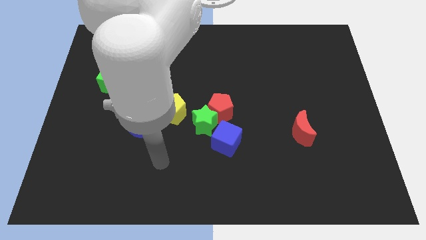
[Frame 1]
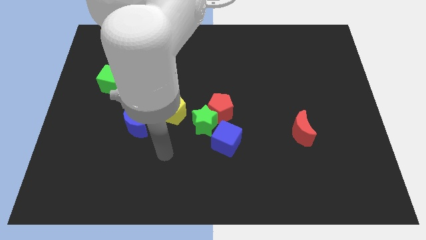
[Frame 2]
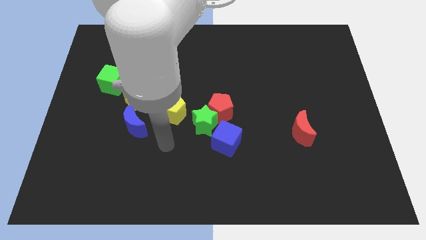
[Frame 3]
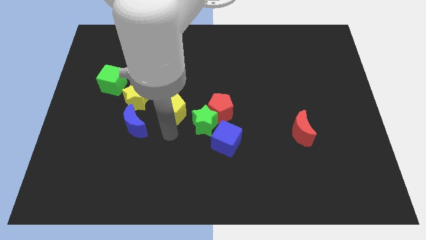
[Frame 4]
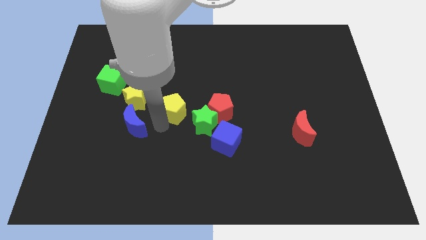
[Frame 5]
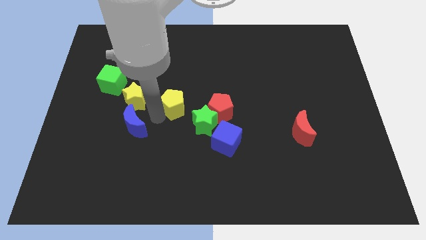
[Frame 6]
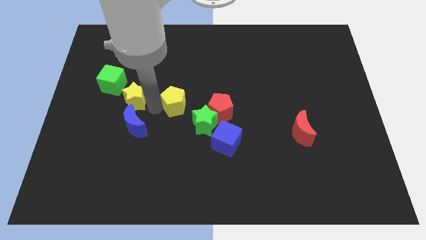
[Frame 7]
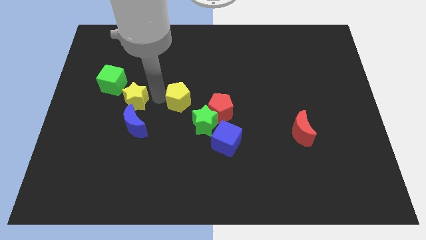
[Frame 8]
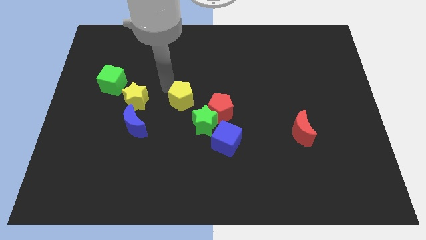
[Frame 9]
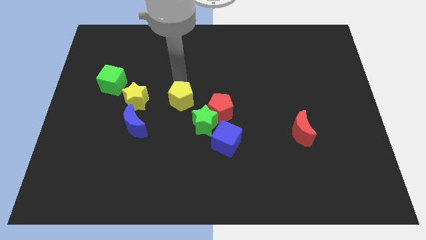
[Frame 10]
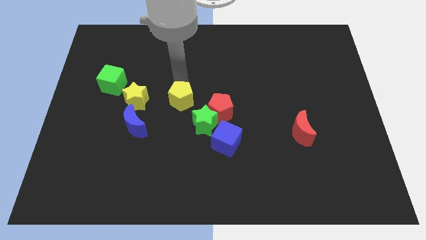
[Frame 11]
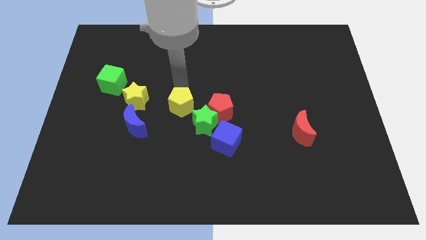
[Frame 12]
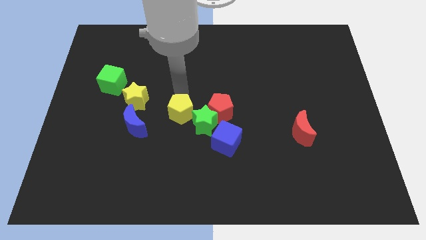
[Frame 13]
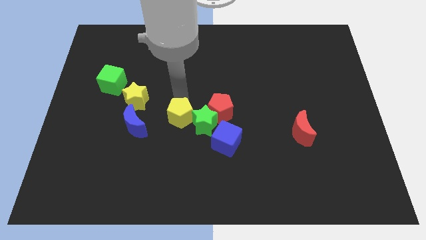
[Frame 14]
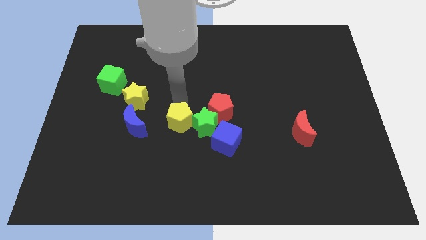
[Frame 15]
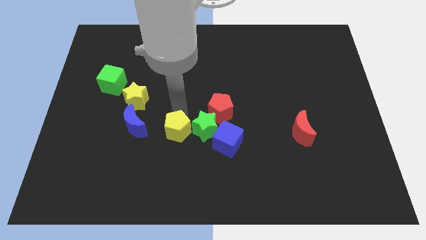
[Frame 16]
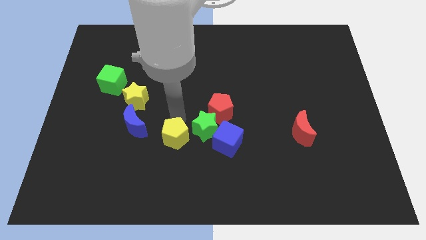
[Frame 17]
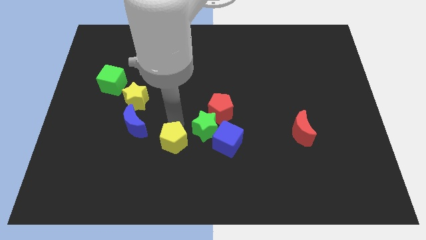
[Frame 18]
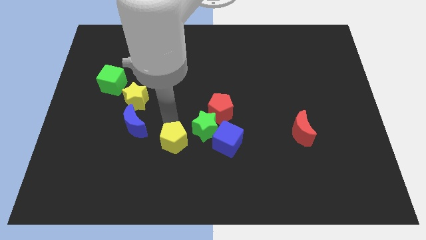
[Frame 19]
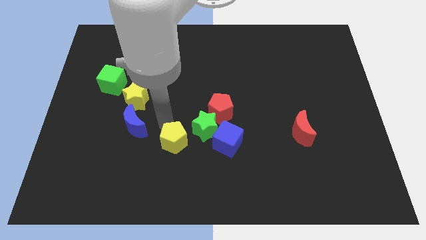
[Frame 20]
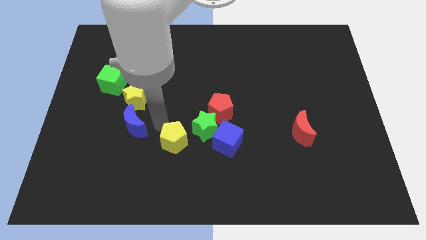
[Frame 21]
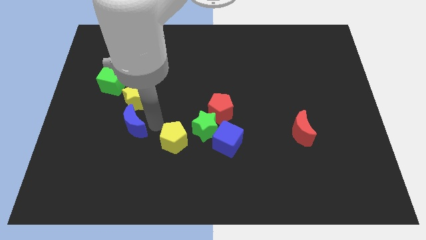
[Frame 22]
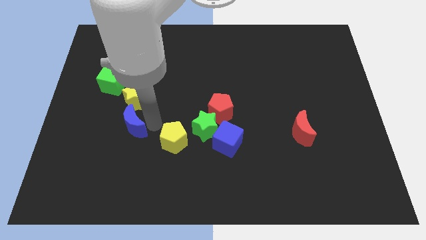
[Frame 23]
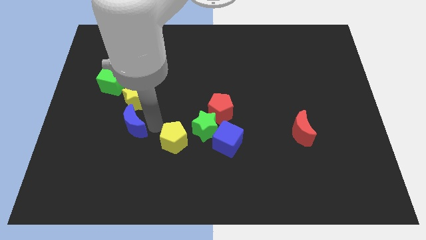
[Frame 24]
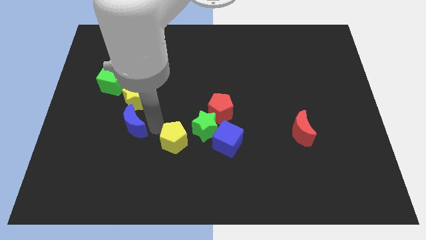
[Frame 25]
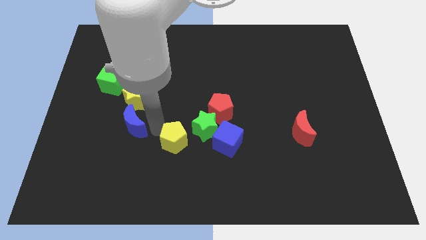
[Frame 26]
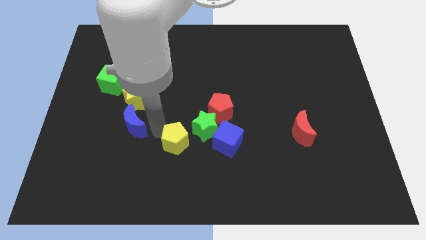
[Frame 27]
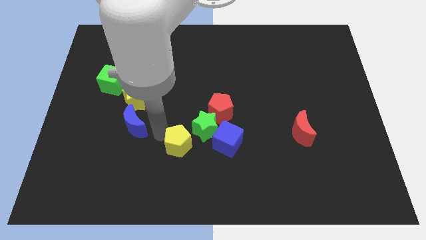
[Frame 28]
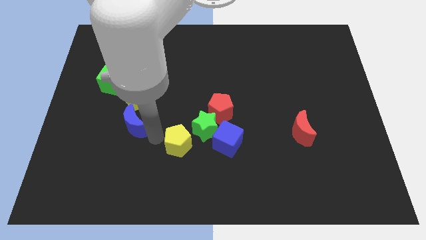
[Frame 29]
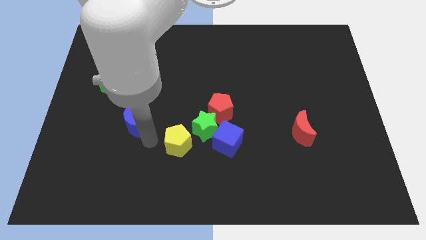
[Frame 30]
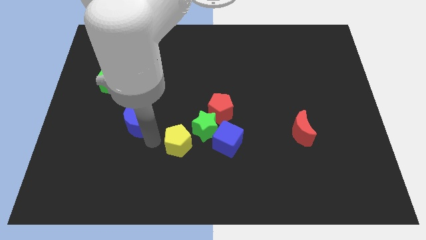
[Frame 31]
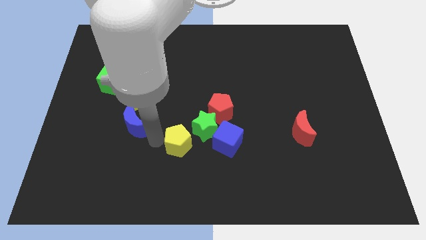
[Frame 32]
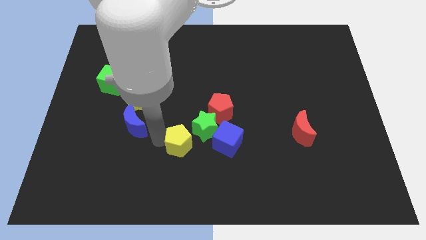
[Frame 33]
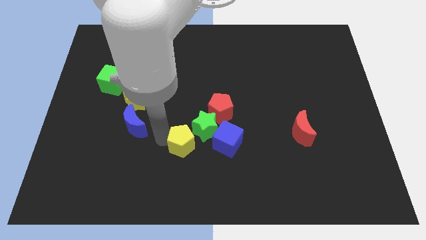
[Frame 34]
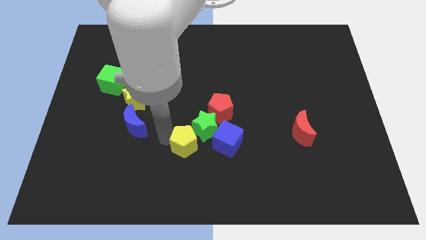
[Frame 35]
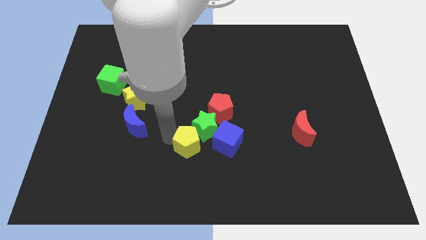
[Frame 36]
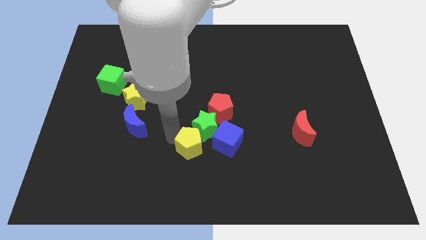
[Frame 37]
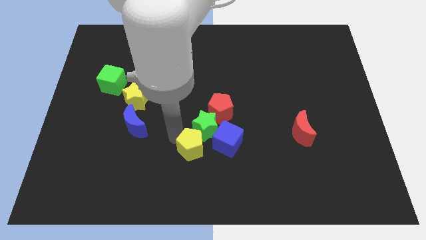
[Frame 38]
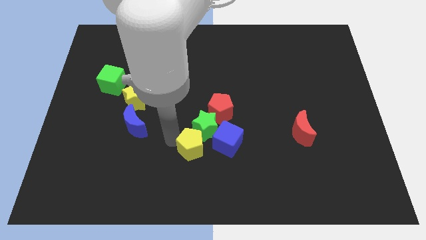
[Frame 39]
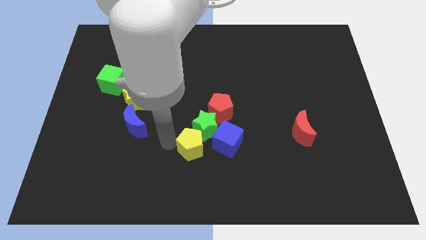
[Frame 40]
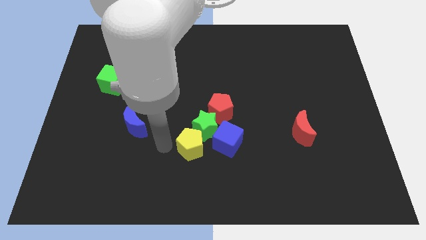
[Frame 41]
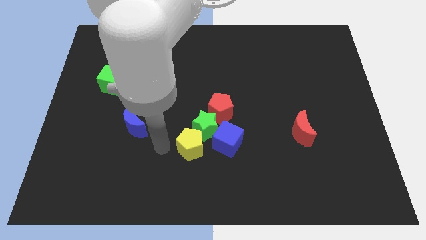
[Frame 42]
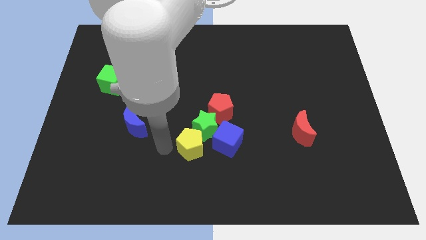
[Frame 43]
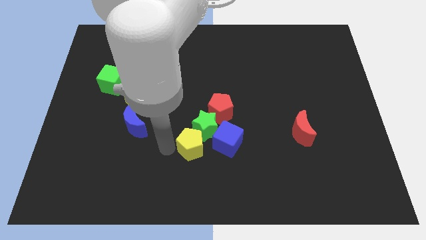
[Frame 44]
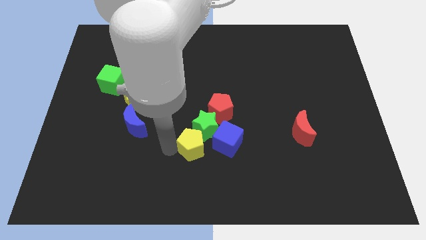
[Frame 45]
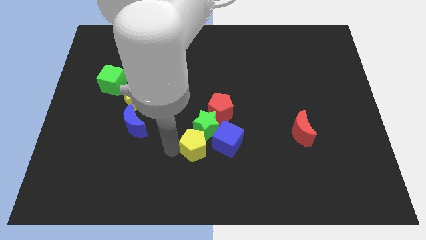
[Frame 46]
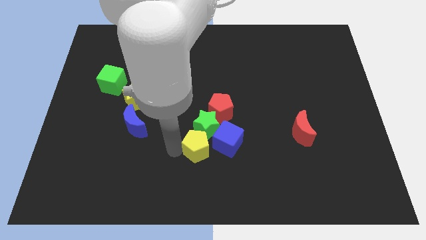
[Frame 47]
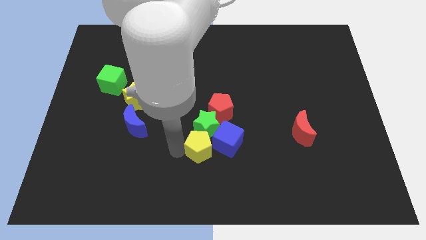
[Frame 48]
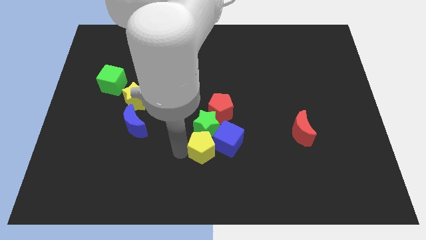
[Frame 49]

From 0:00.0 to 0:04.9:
move the yellow pentagon close to the blue cube

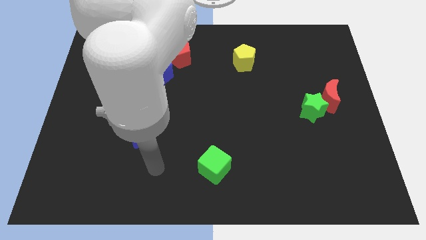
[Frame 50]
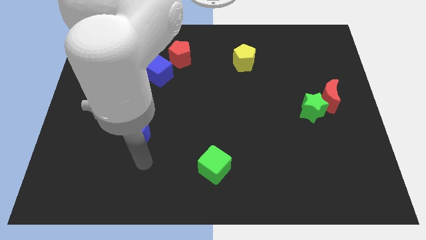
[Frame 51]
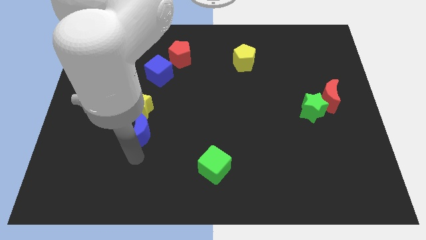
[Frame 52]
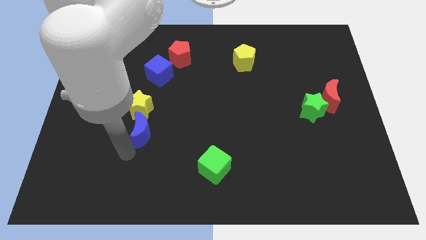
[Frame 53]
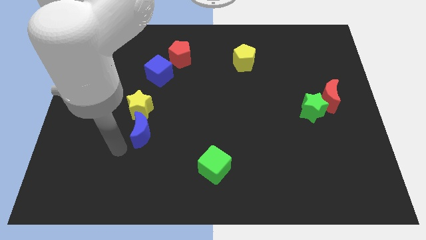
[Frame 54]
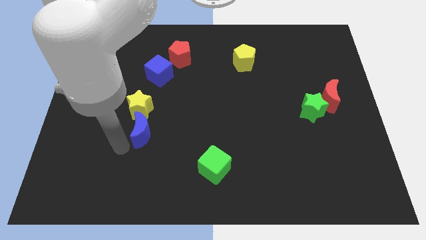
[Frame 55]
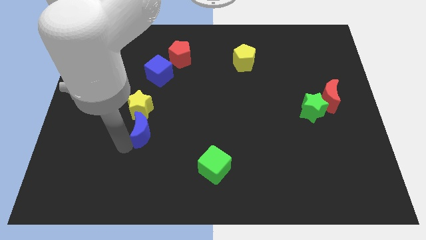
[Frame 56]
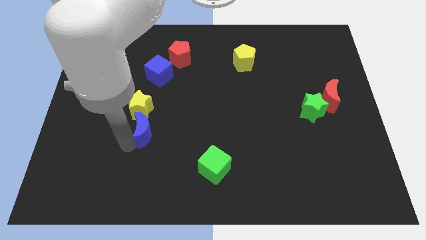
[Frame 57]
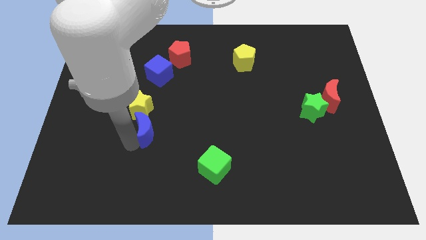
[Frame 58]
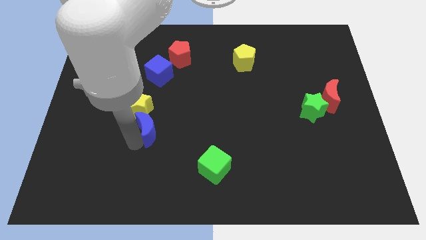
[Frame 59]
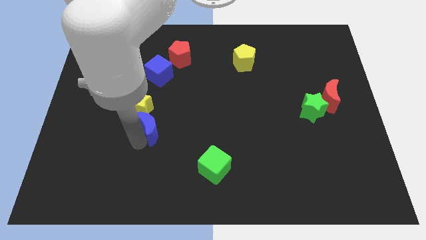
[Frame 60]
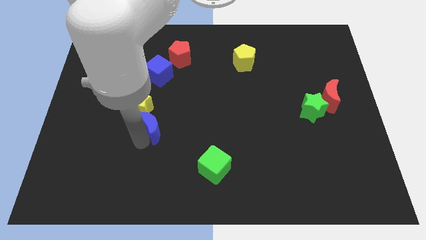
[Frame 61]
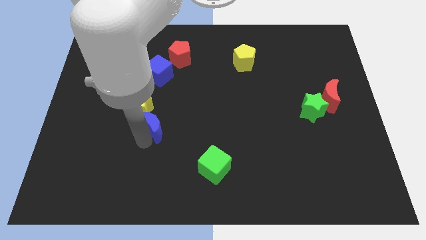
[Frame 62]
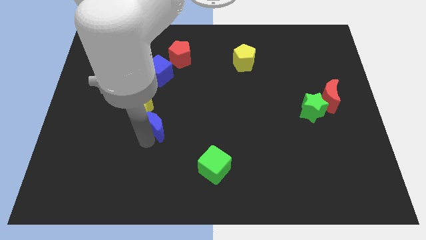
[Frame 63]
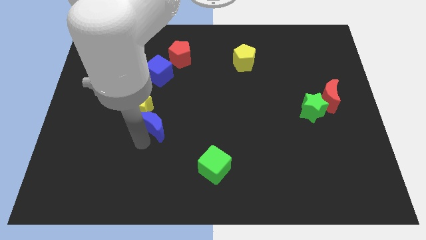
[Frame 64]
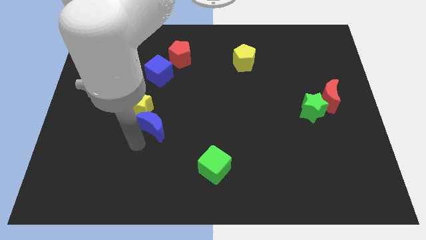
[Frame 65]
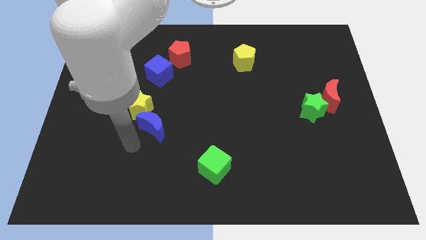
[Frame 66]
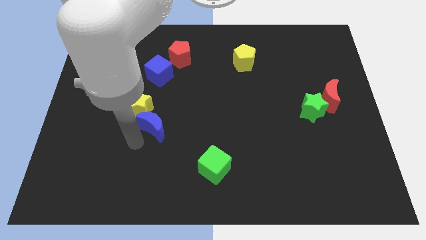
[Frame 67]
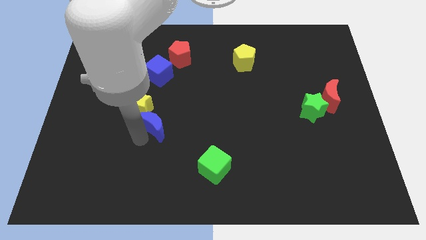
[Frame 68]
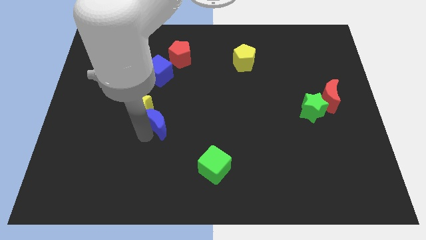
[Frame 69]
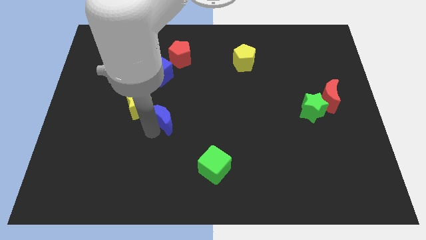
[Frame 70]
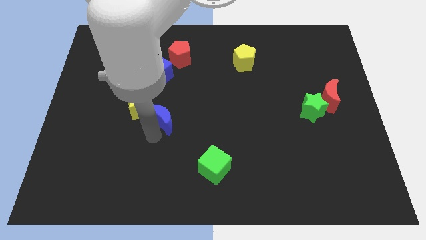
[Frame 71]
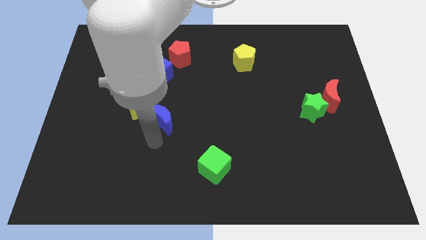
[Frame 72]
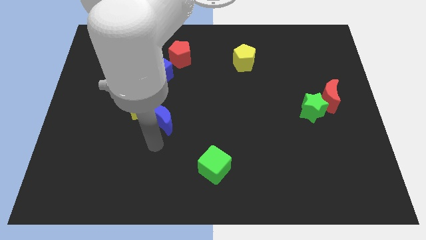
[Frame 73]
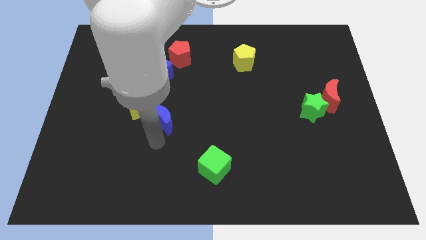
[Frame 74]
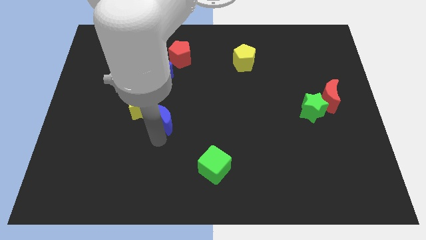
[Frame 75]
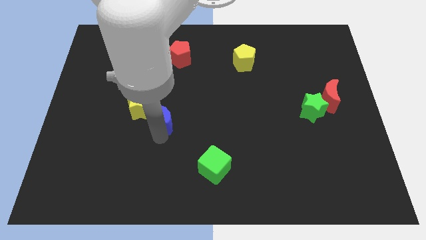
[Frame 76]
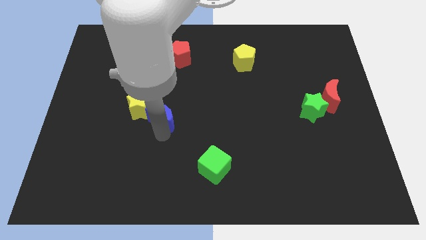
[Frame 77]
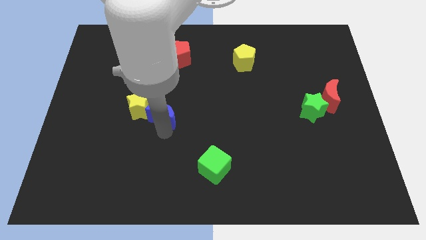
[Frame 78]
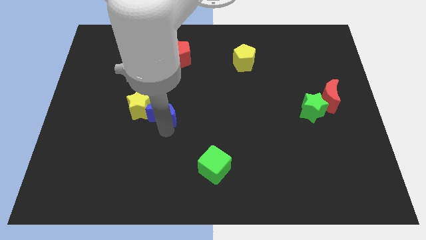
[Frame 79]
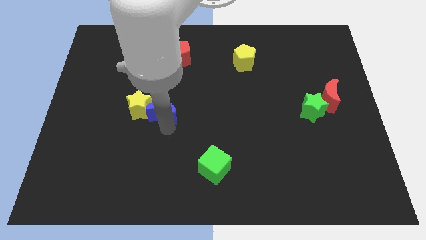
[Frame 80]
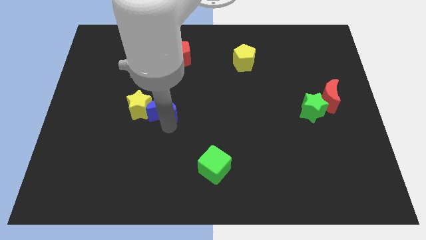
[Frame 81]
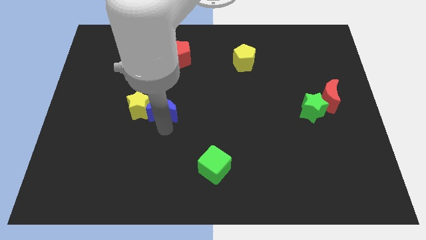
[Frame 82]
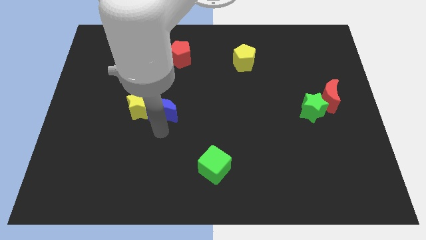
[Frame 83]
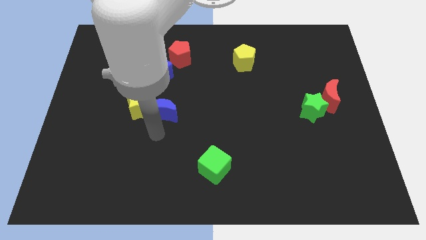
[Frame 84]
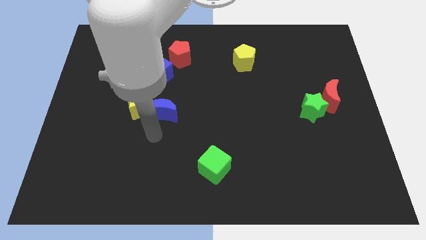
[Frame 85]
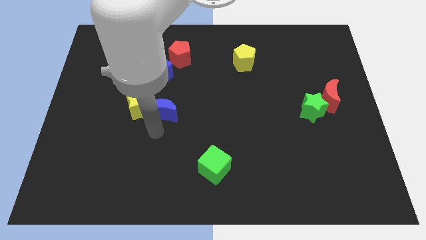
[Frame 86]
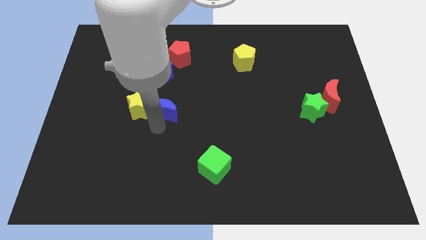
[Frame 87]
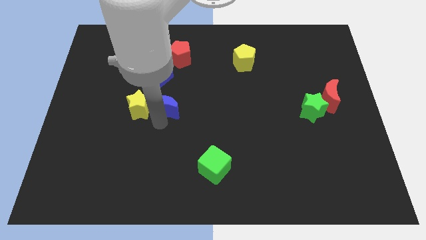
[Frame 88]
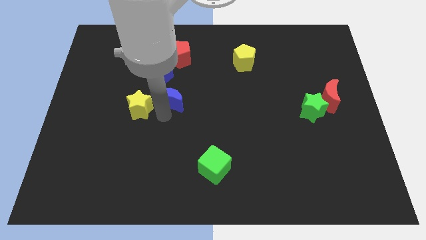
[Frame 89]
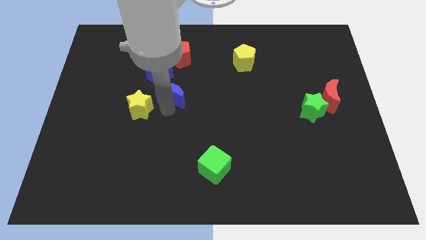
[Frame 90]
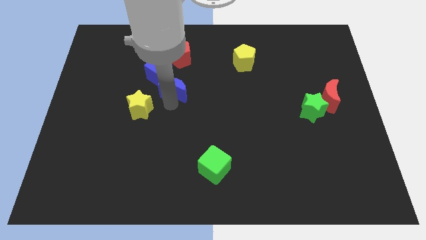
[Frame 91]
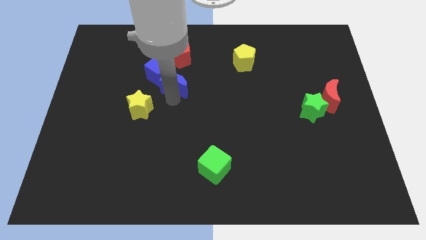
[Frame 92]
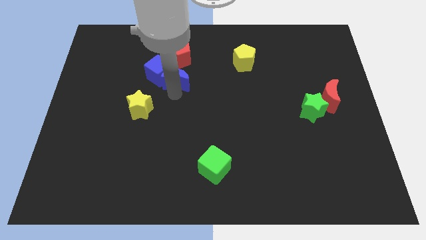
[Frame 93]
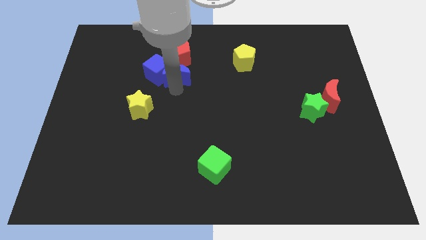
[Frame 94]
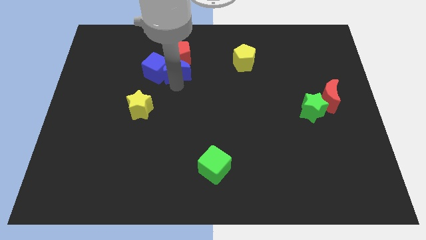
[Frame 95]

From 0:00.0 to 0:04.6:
push the blue moon to the red pentagon
